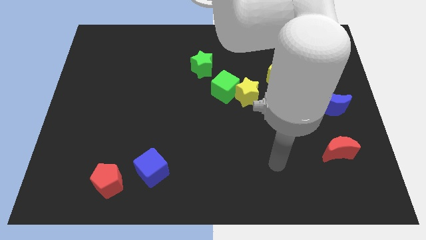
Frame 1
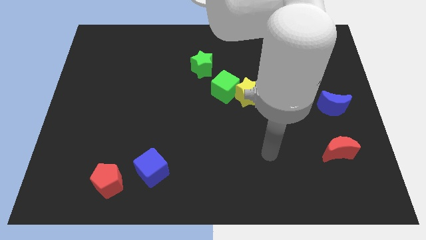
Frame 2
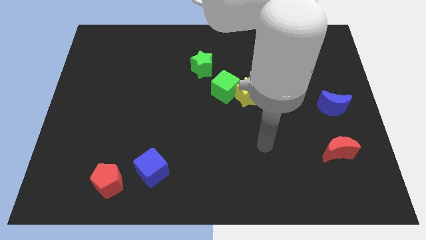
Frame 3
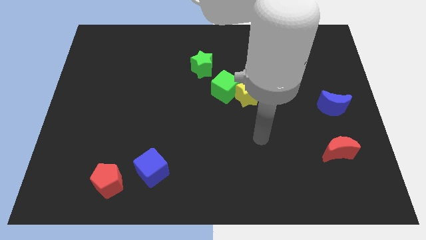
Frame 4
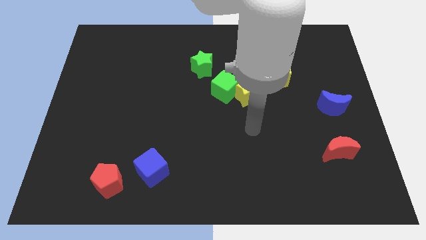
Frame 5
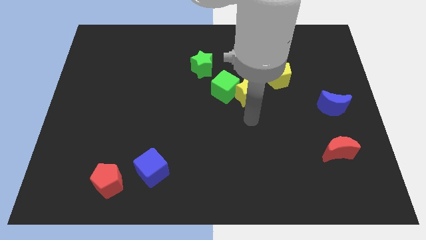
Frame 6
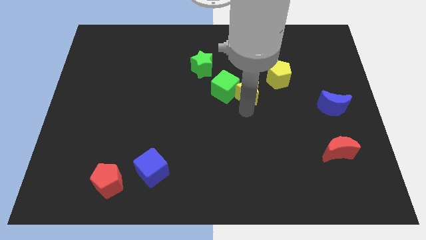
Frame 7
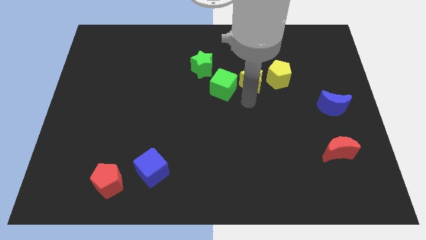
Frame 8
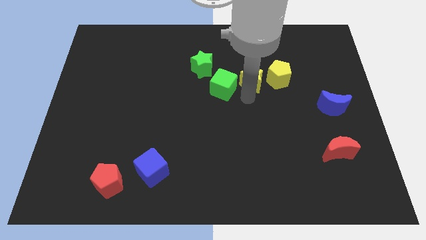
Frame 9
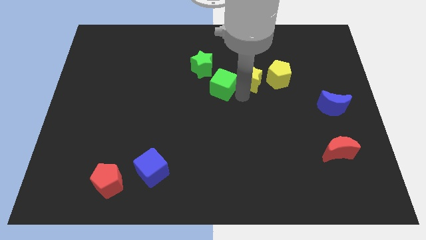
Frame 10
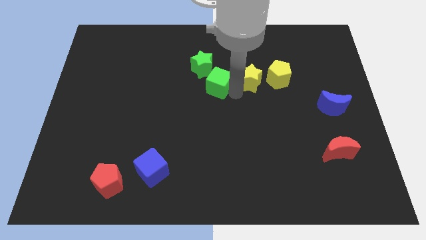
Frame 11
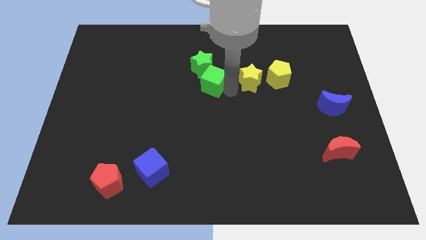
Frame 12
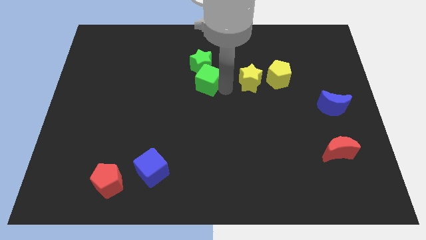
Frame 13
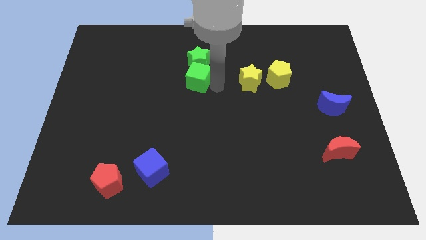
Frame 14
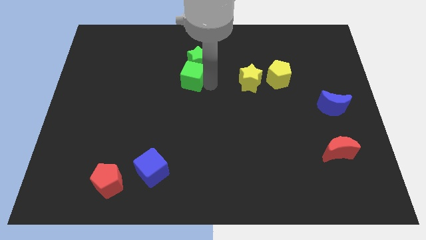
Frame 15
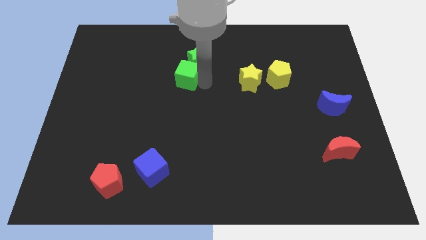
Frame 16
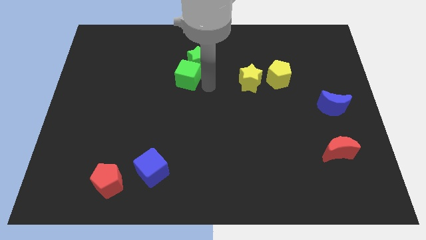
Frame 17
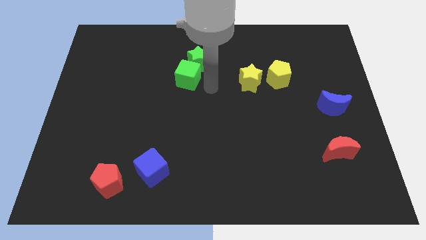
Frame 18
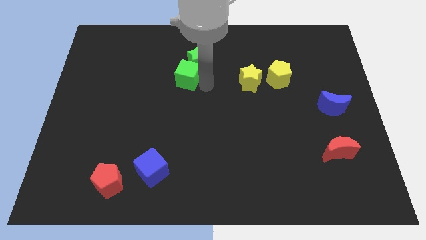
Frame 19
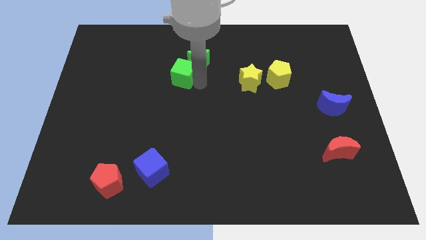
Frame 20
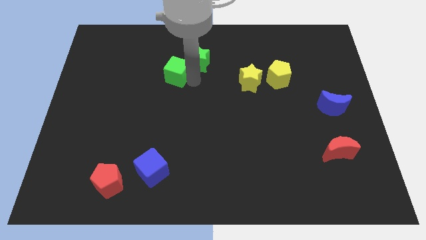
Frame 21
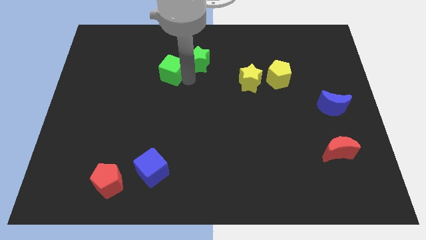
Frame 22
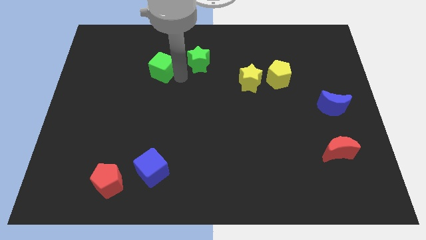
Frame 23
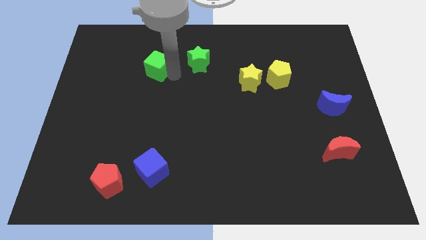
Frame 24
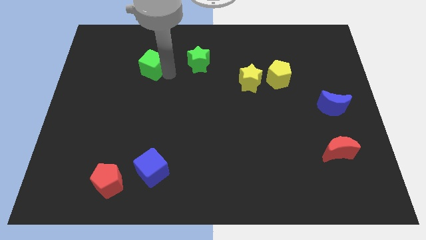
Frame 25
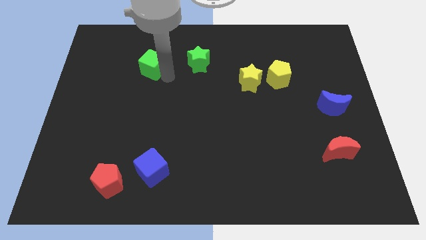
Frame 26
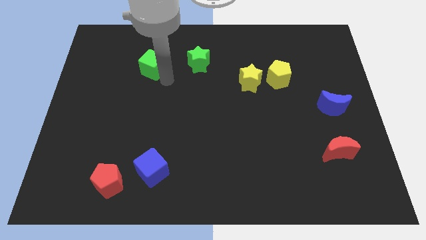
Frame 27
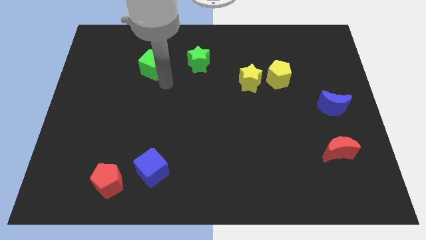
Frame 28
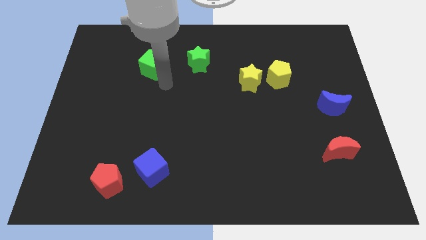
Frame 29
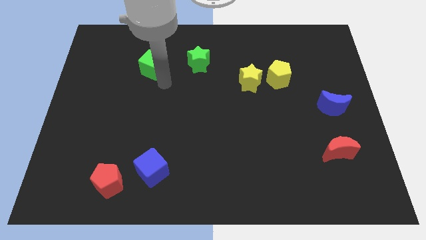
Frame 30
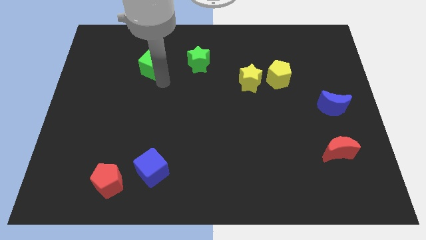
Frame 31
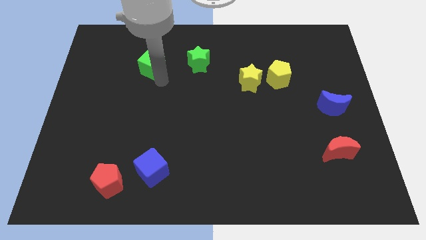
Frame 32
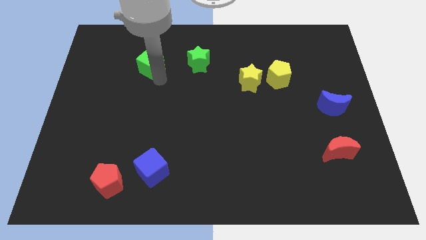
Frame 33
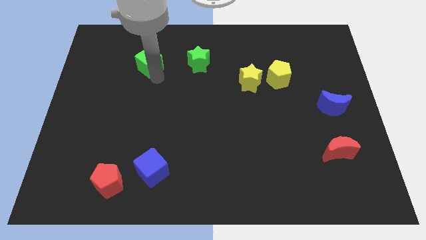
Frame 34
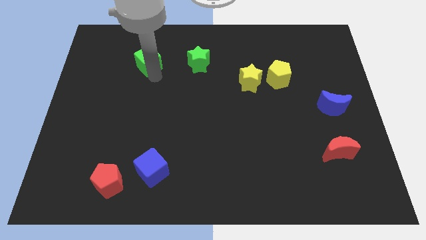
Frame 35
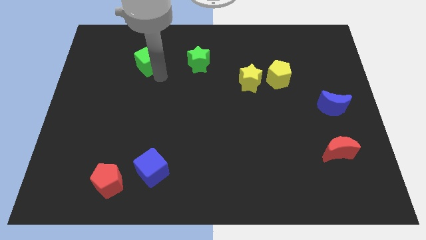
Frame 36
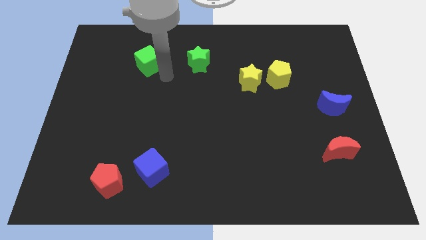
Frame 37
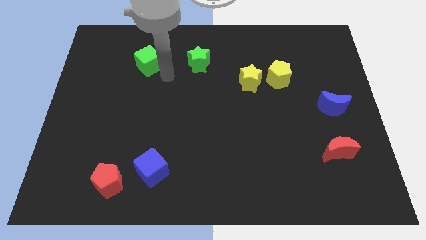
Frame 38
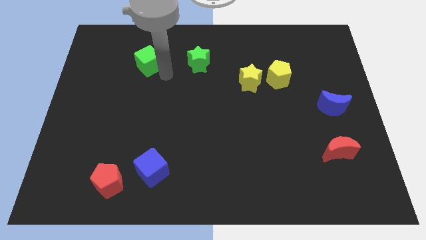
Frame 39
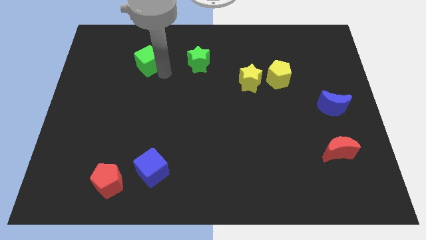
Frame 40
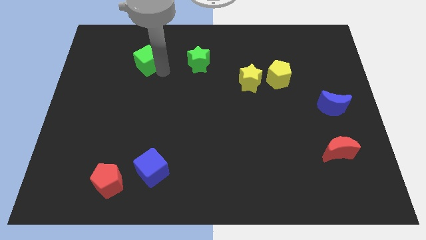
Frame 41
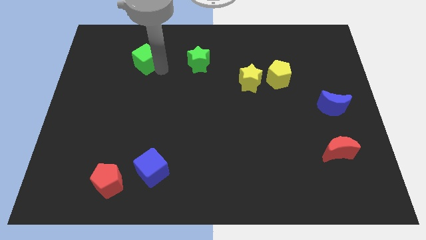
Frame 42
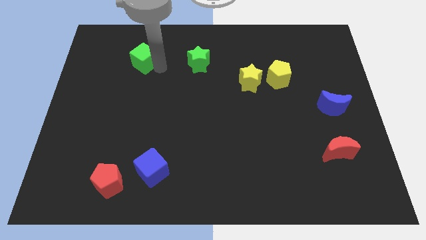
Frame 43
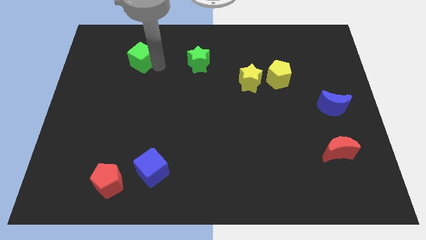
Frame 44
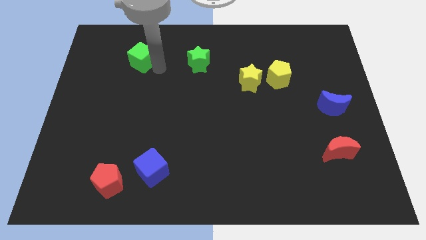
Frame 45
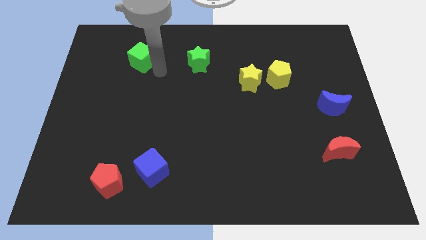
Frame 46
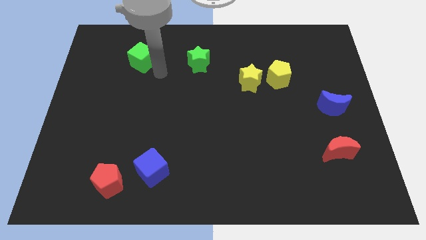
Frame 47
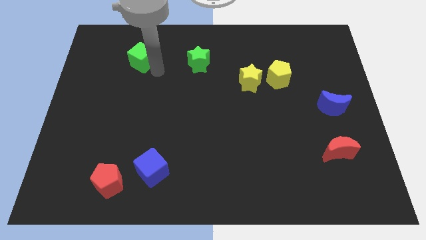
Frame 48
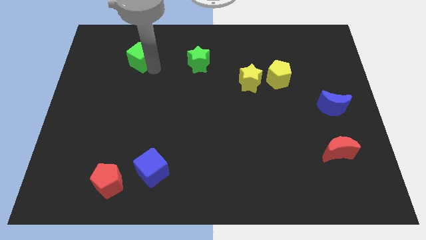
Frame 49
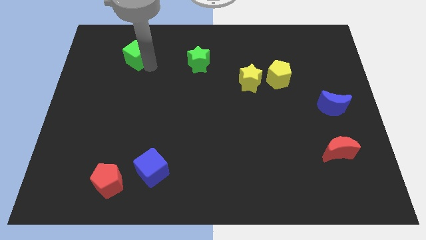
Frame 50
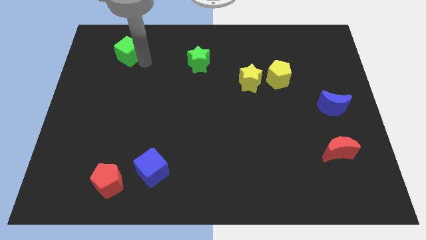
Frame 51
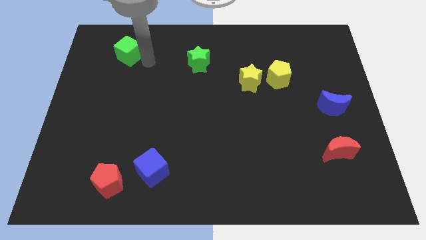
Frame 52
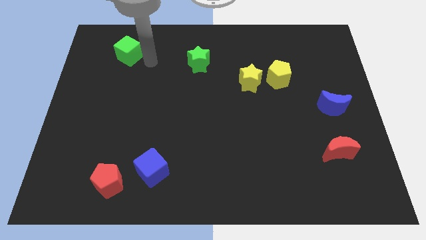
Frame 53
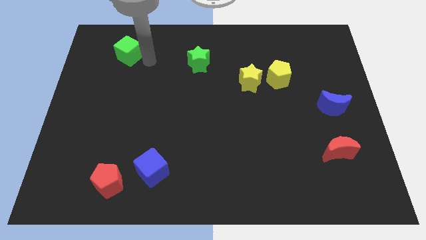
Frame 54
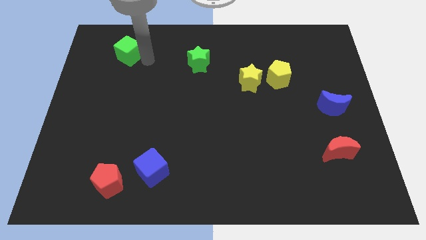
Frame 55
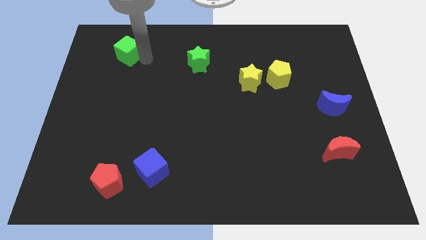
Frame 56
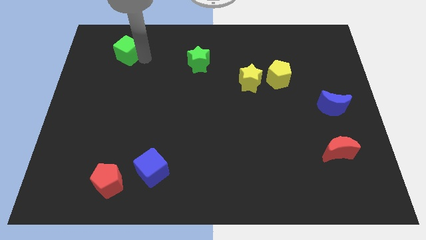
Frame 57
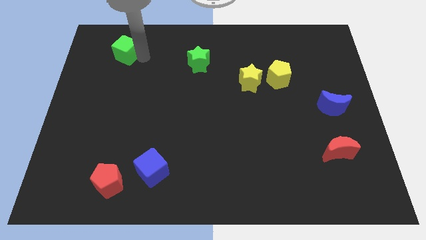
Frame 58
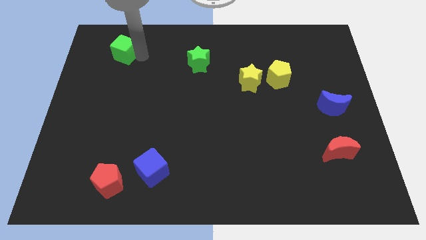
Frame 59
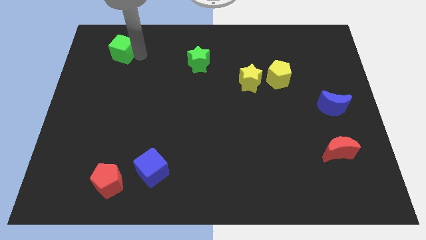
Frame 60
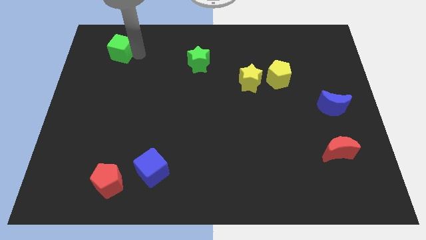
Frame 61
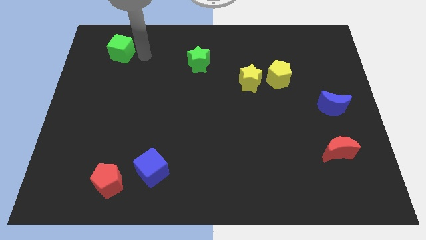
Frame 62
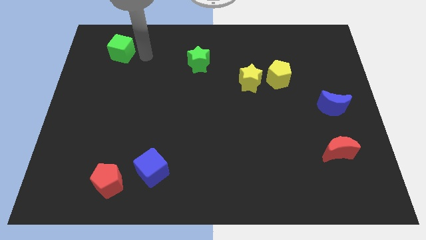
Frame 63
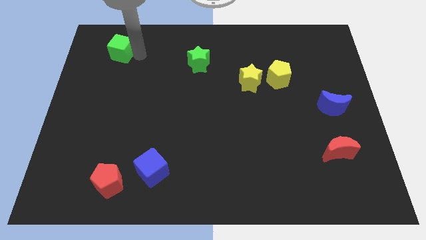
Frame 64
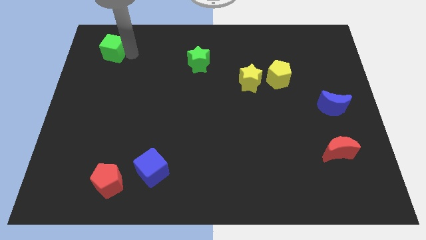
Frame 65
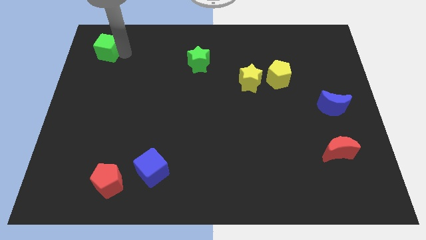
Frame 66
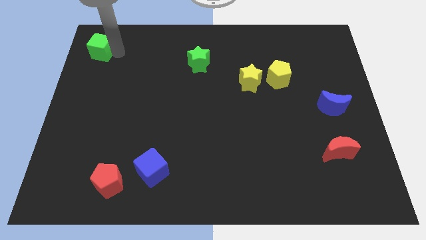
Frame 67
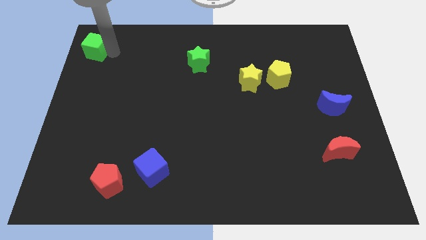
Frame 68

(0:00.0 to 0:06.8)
put the green cube to the top left corner

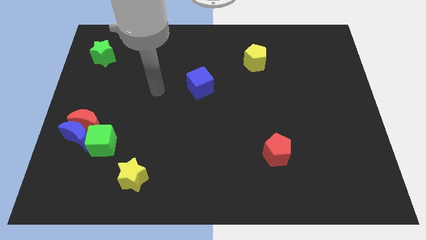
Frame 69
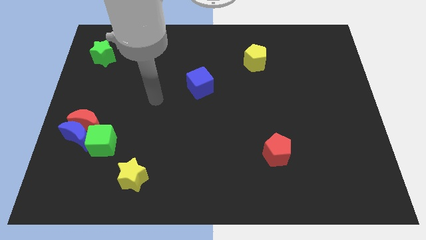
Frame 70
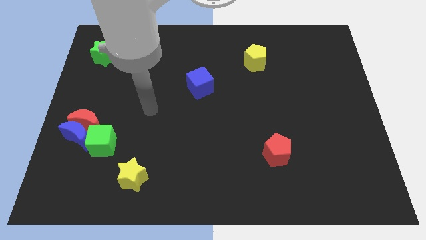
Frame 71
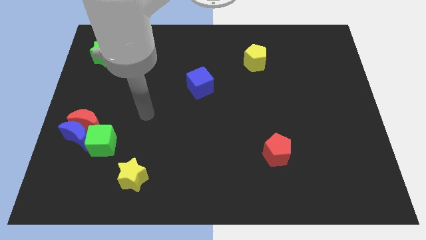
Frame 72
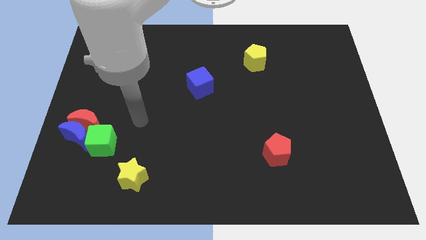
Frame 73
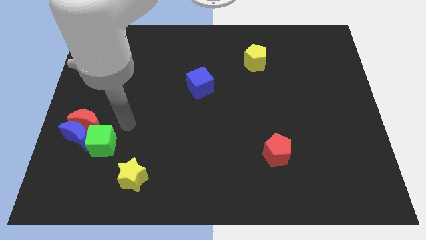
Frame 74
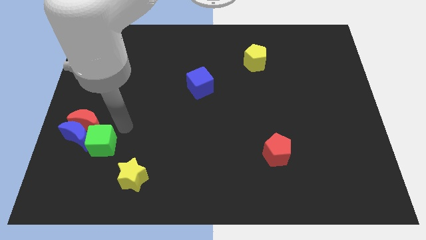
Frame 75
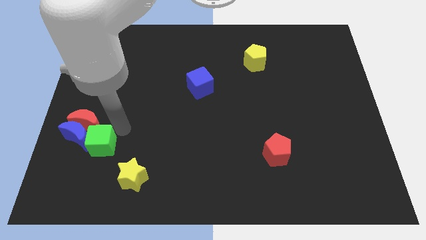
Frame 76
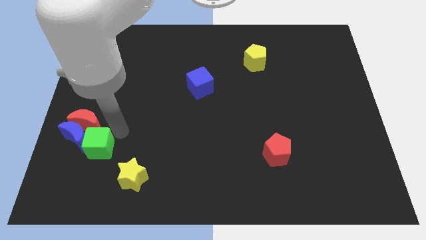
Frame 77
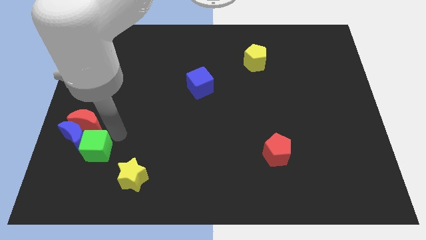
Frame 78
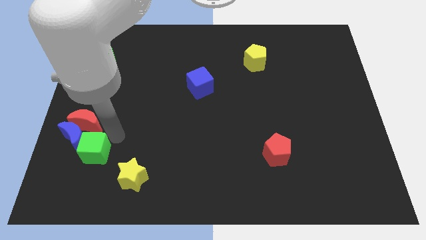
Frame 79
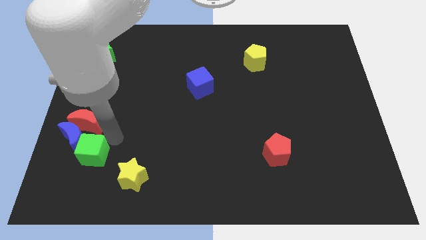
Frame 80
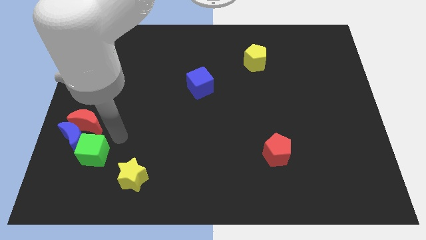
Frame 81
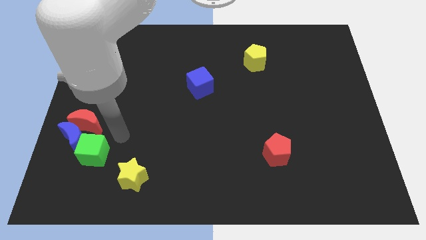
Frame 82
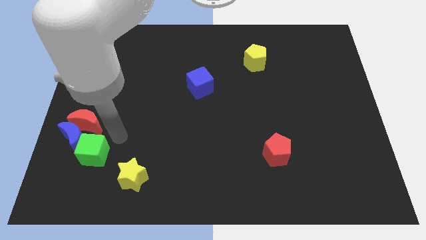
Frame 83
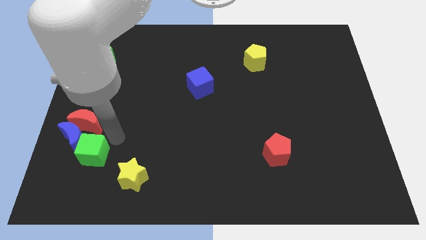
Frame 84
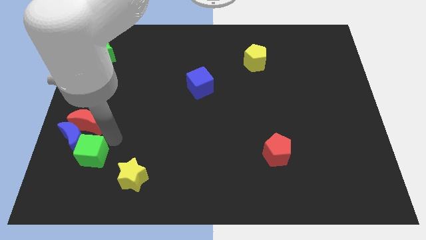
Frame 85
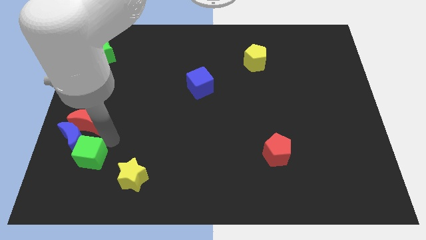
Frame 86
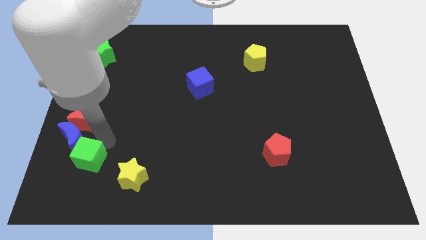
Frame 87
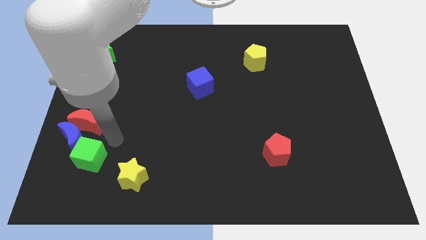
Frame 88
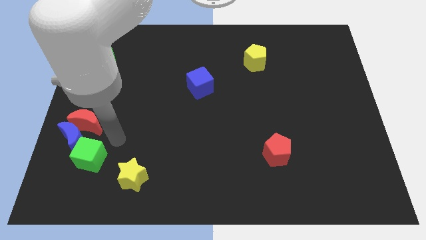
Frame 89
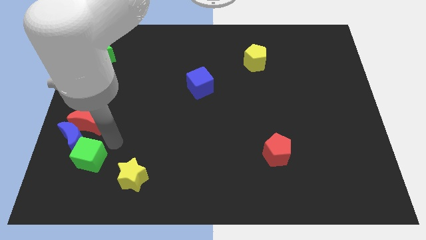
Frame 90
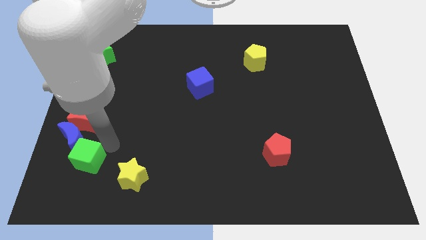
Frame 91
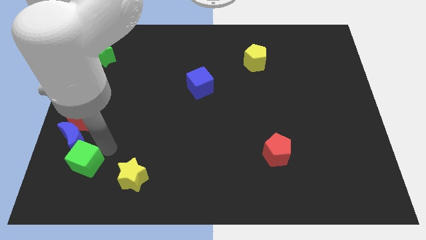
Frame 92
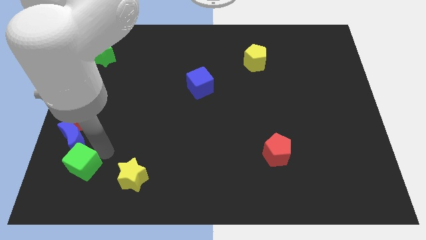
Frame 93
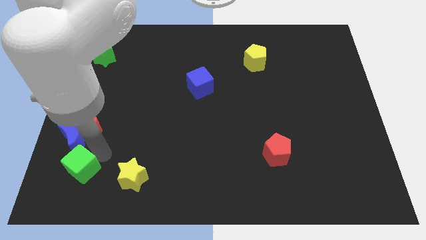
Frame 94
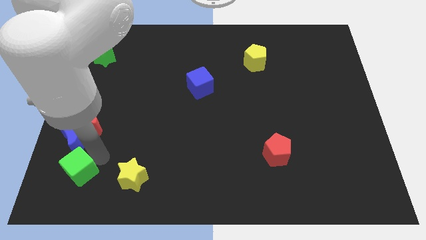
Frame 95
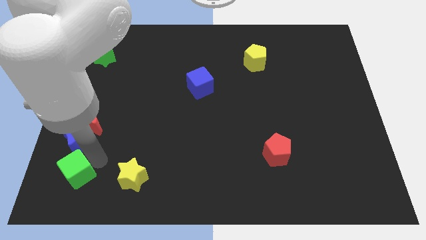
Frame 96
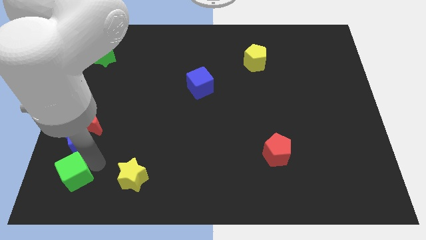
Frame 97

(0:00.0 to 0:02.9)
put the green cube to the lower left corner
